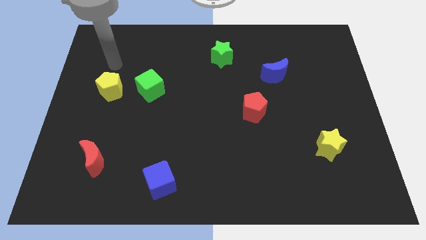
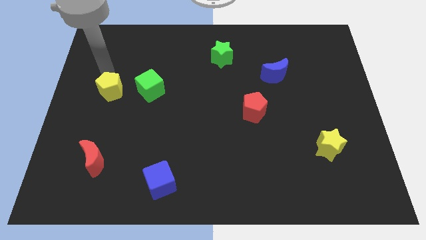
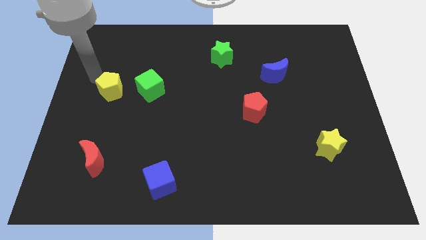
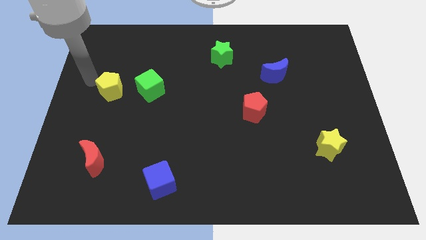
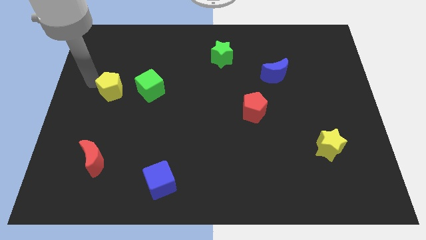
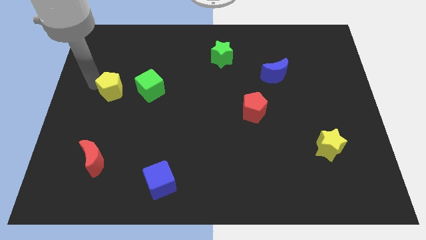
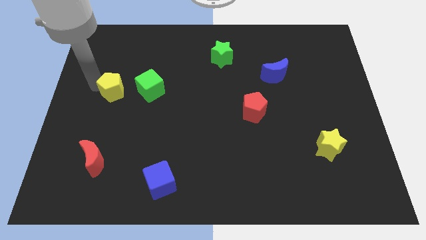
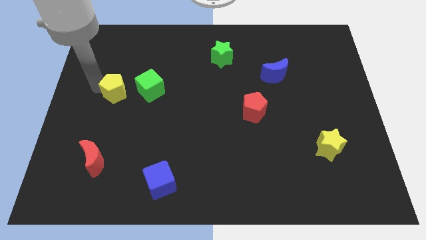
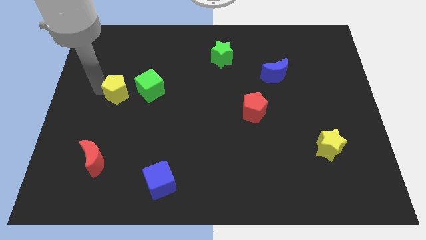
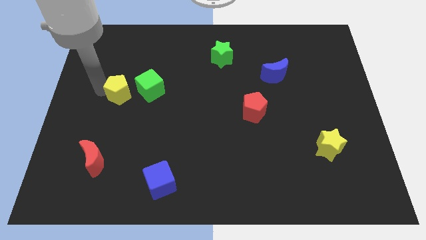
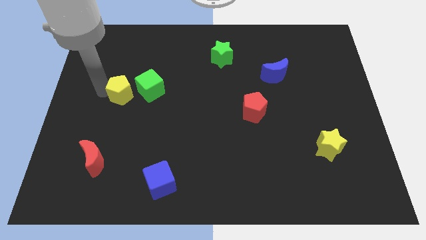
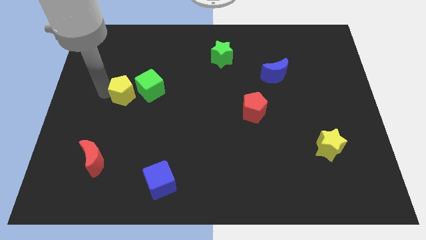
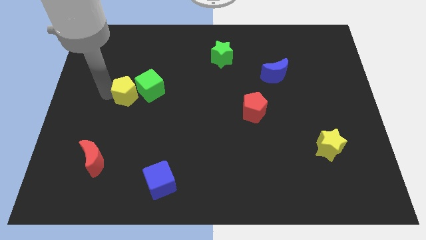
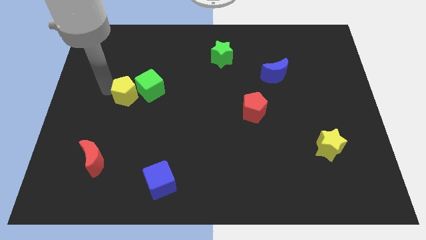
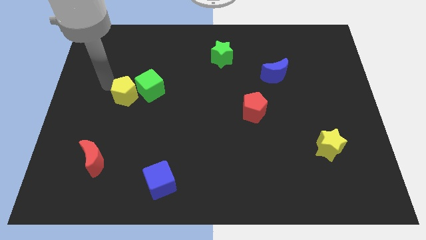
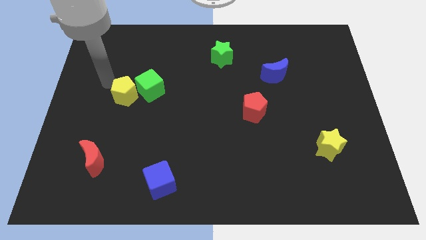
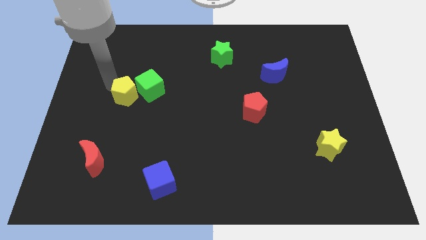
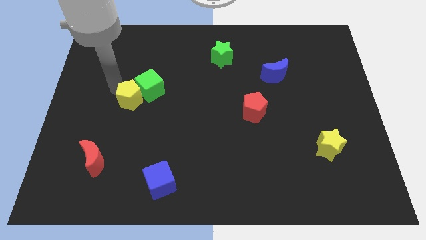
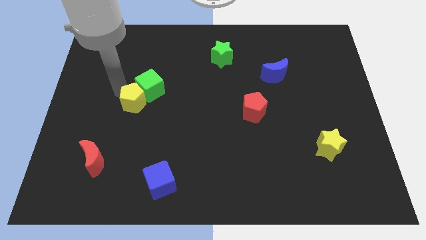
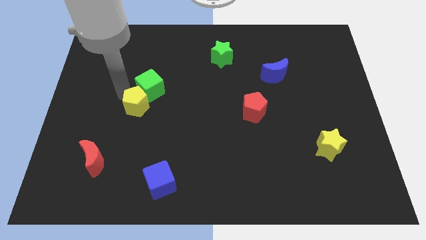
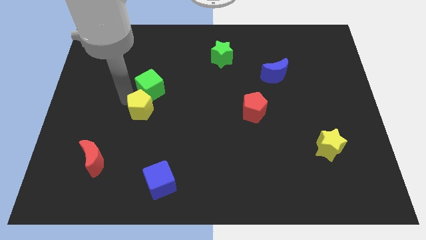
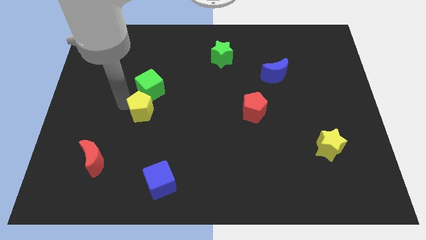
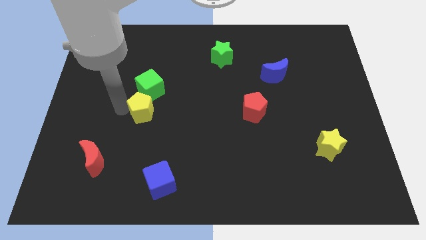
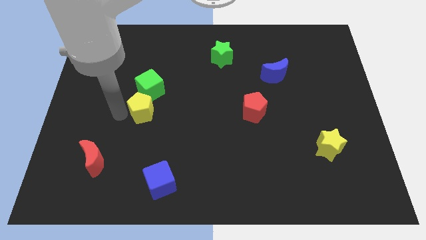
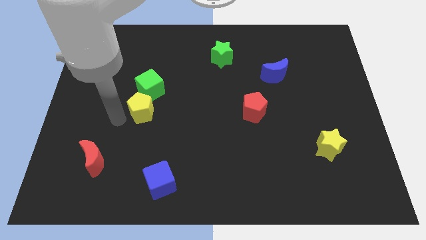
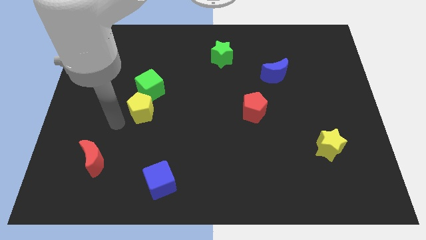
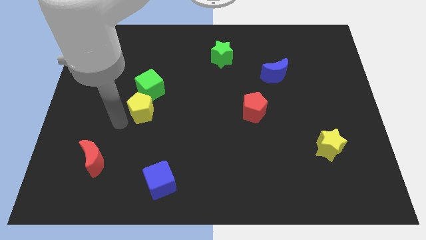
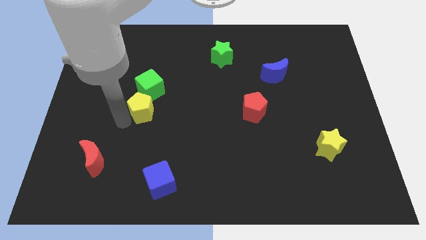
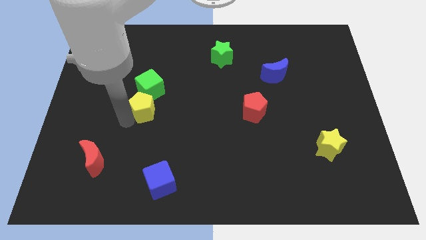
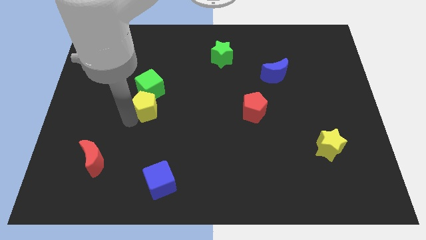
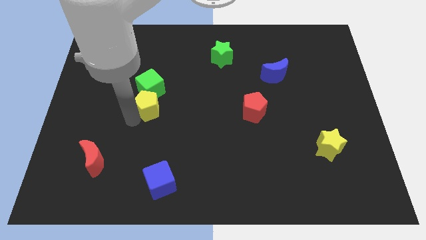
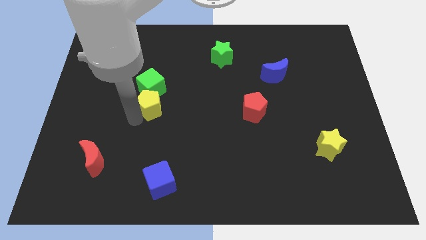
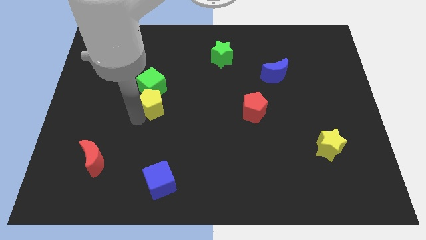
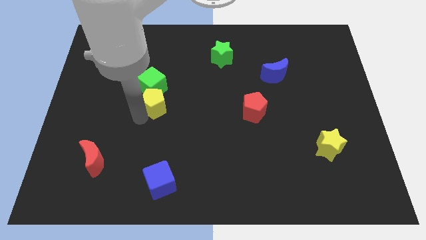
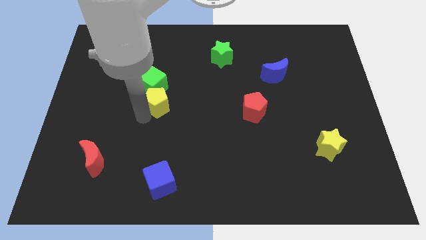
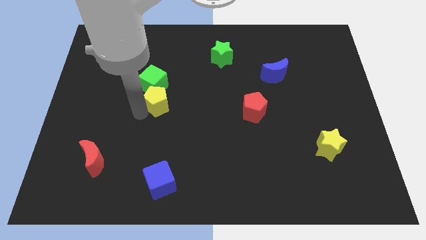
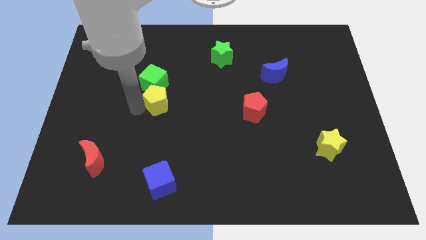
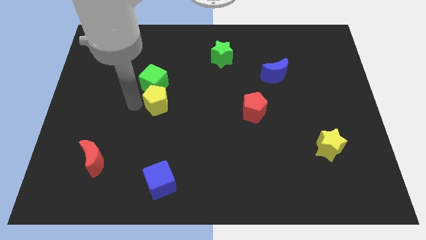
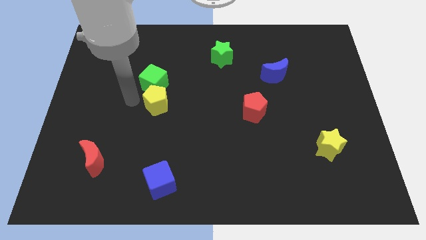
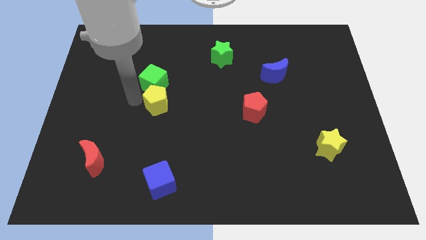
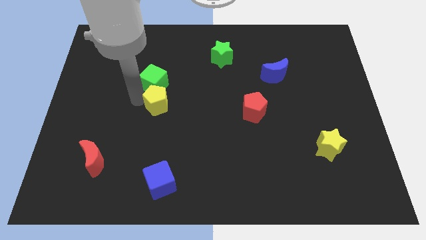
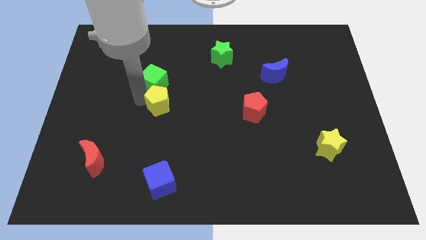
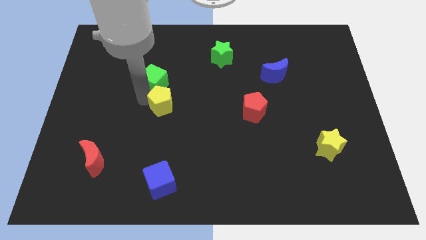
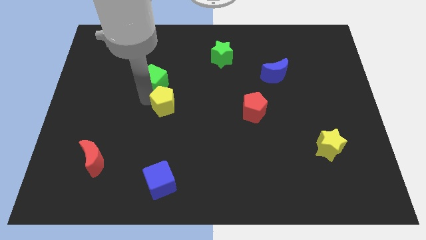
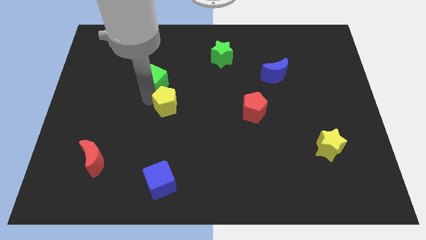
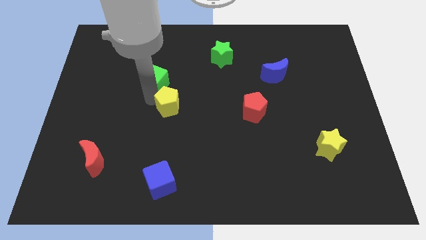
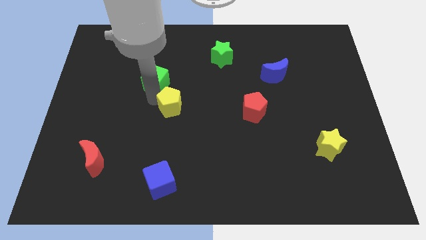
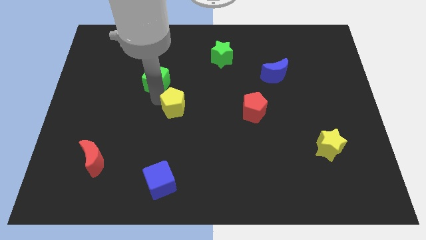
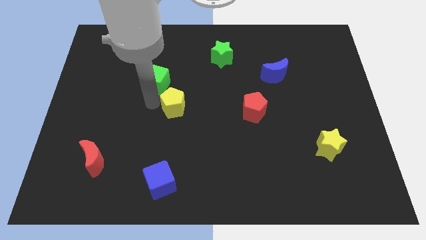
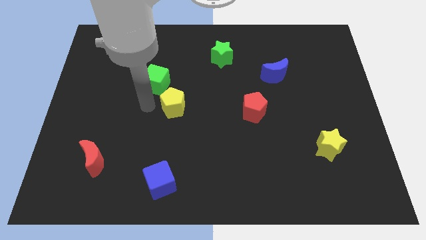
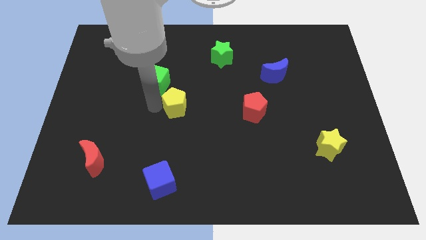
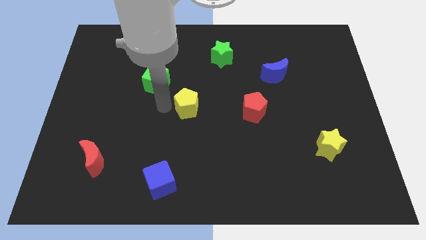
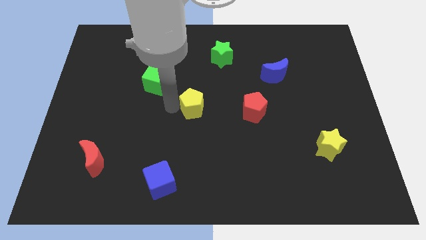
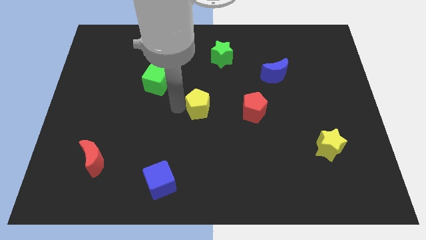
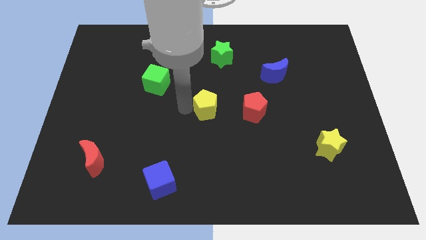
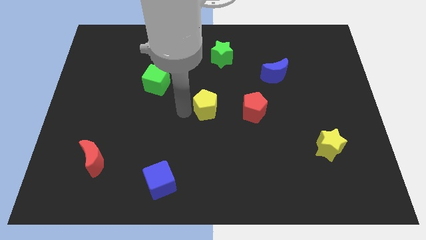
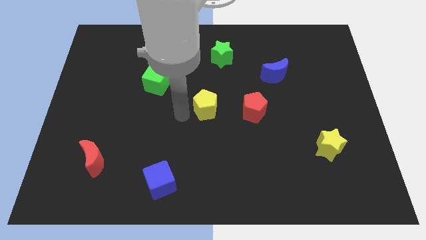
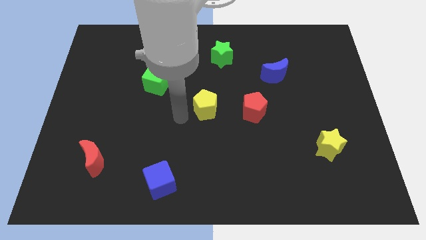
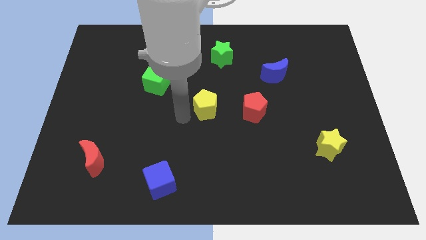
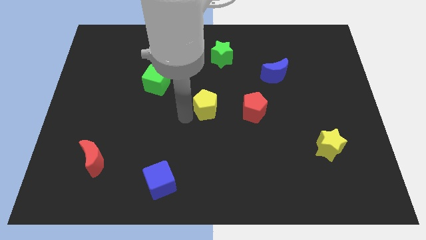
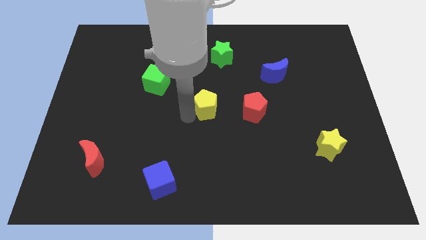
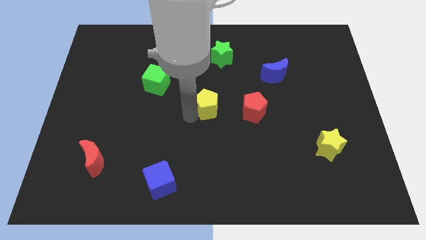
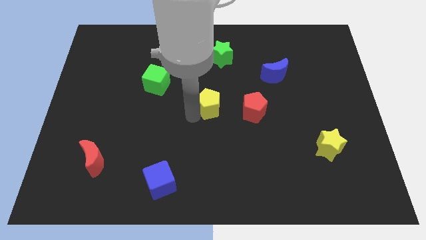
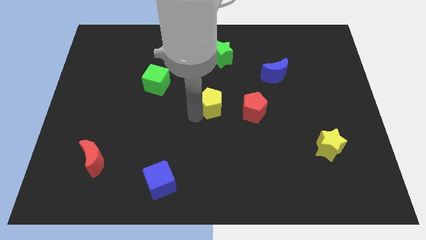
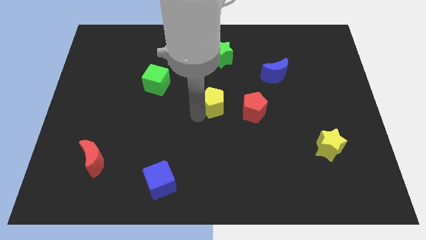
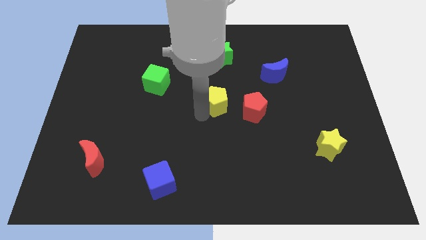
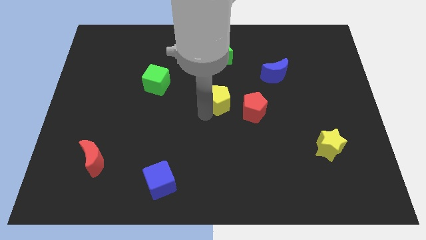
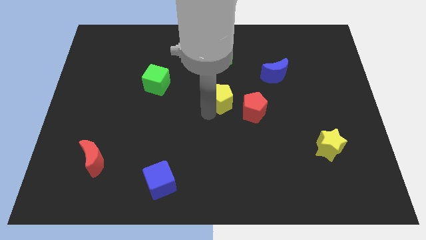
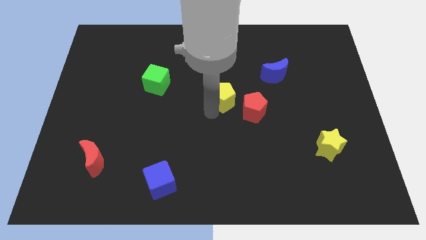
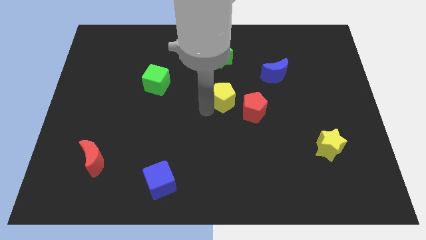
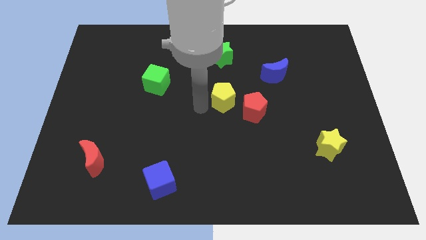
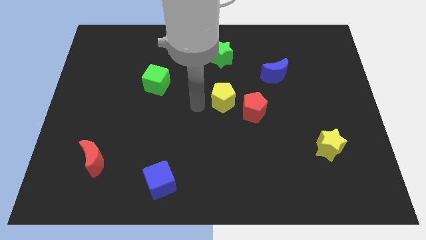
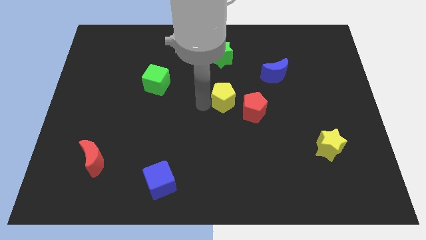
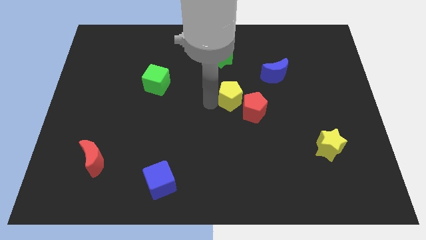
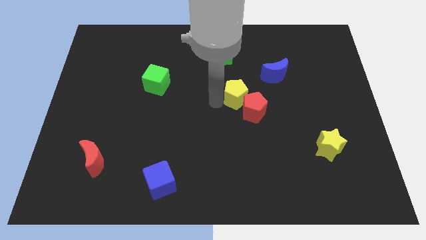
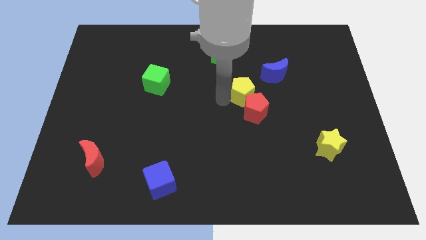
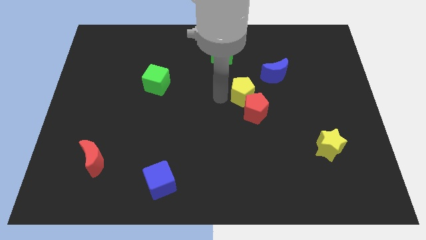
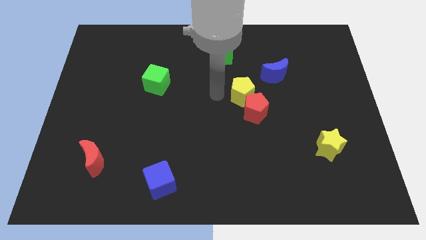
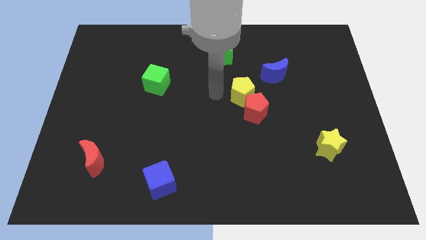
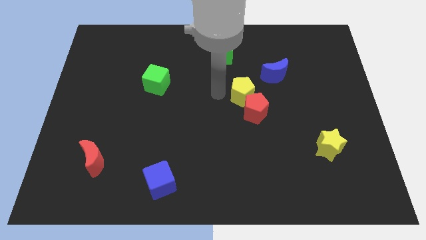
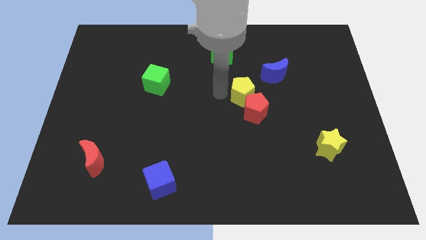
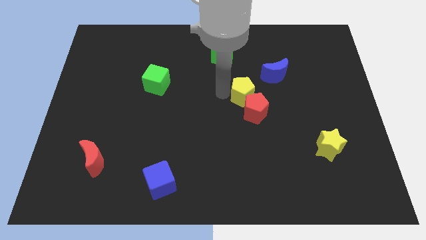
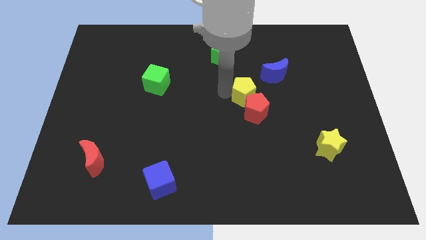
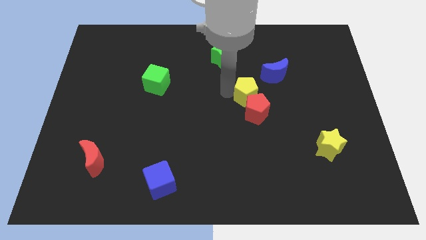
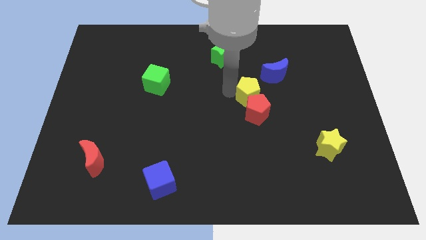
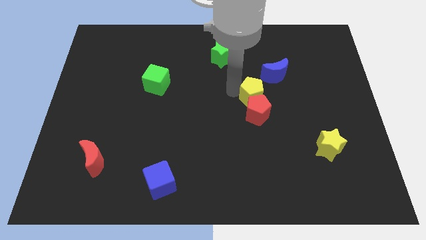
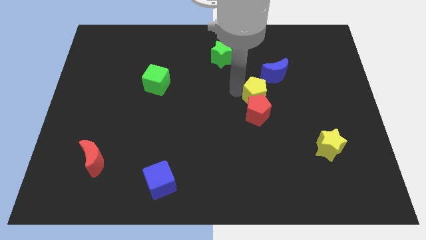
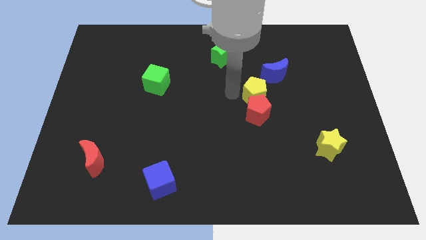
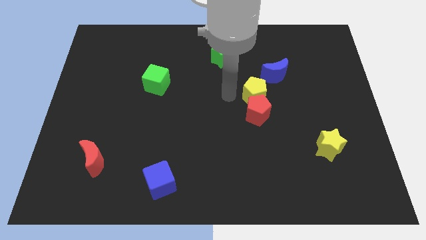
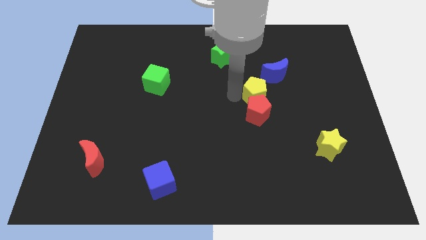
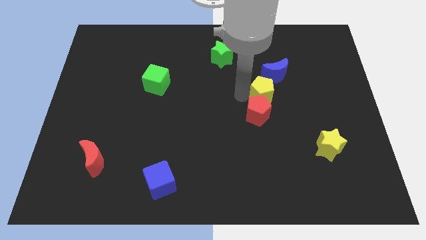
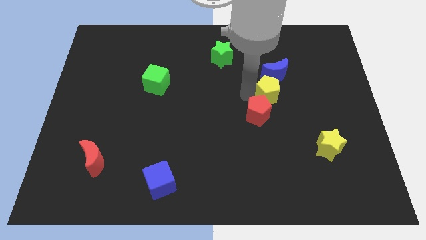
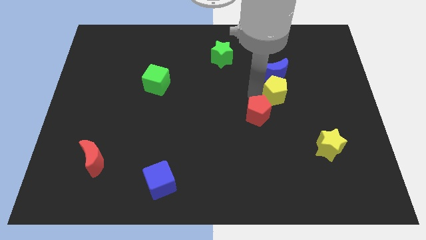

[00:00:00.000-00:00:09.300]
put the yellow pentagon to the bottom right side of the blue moon
